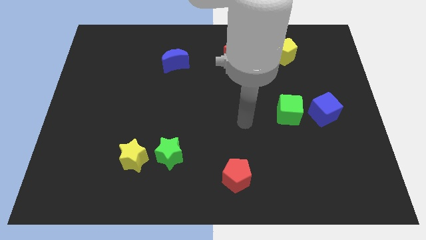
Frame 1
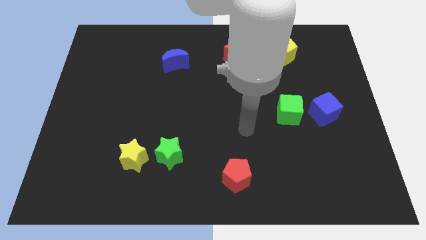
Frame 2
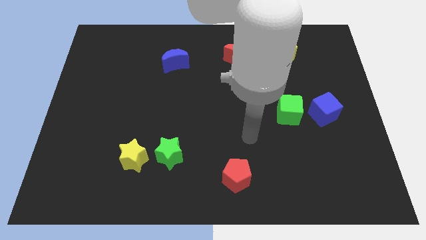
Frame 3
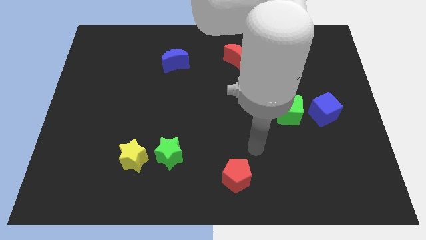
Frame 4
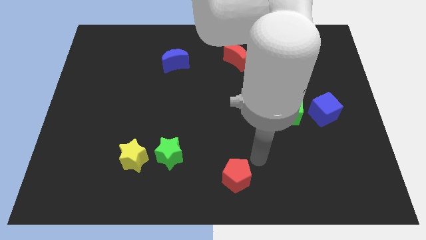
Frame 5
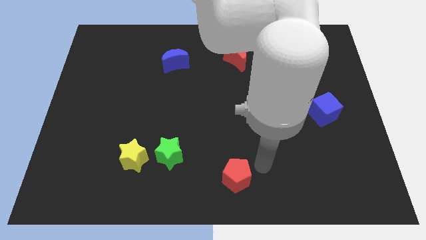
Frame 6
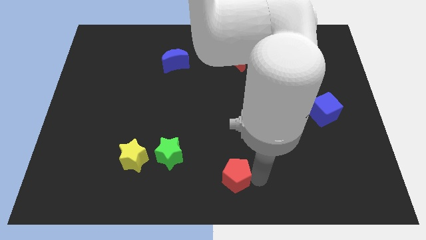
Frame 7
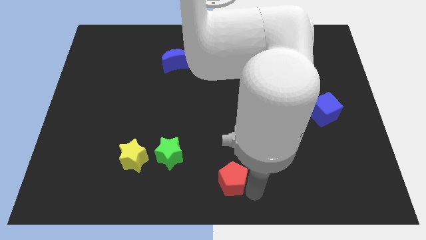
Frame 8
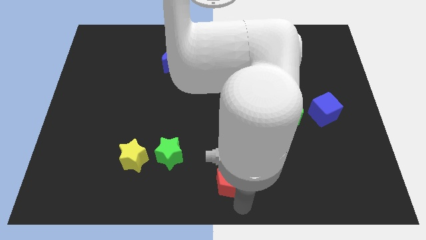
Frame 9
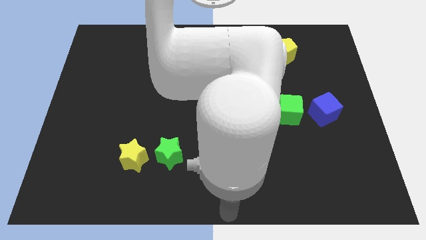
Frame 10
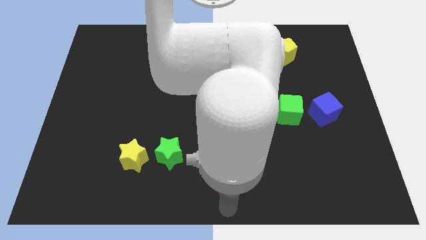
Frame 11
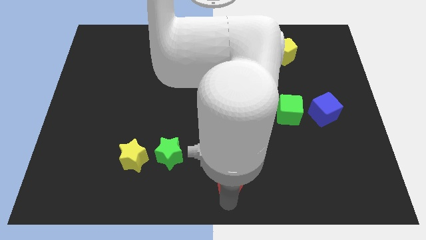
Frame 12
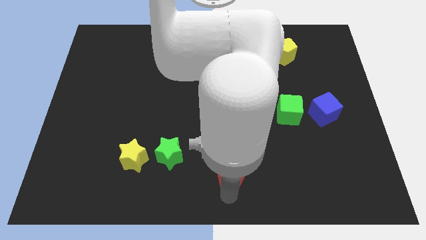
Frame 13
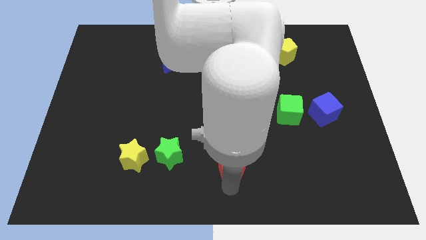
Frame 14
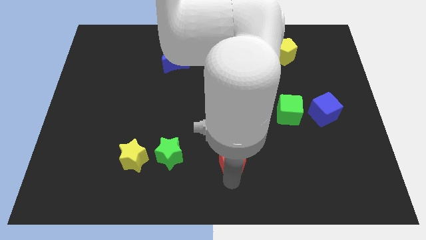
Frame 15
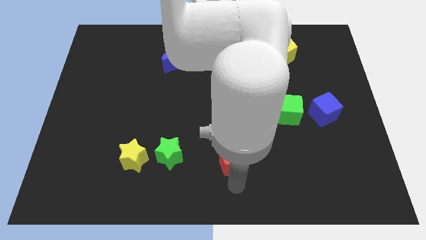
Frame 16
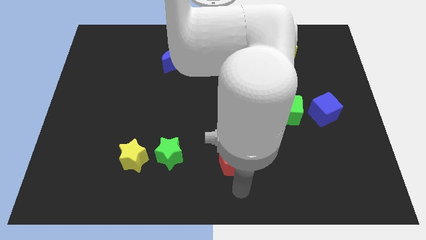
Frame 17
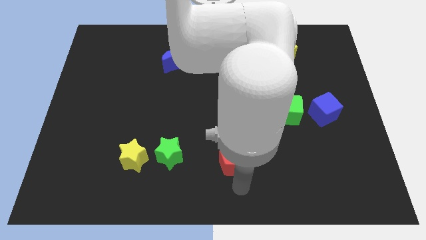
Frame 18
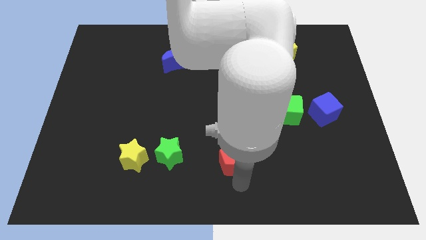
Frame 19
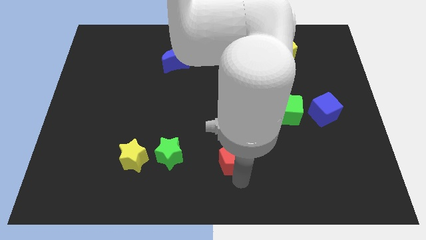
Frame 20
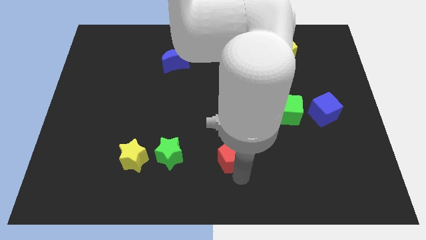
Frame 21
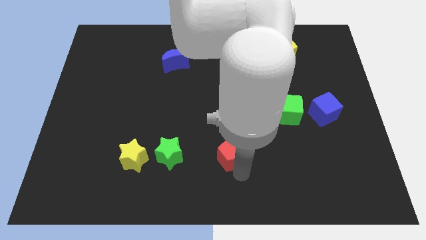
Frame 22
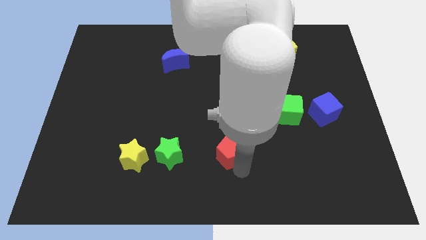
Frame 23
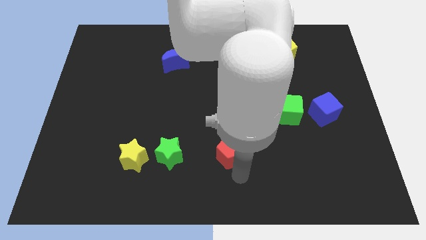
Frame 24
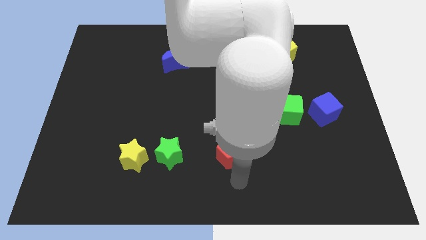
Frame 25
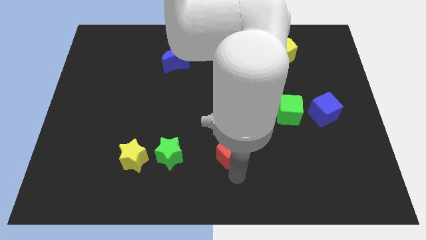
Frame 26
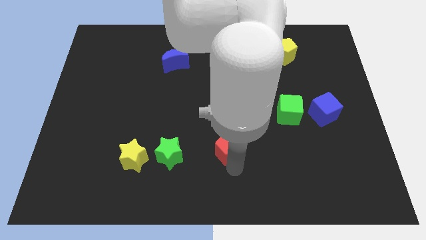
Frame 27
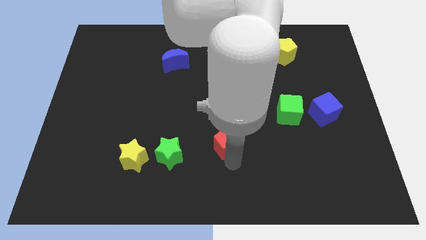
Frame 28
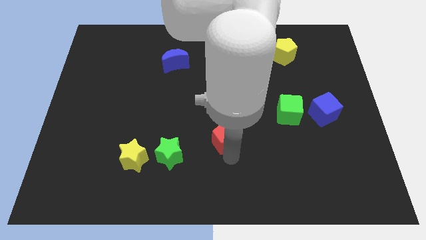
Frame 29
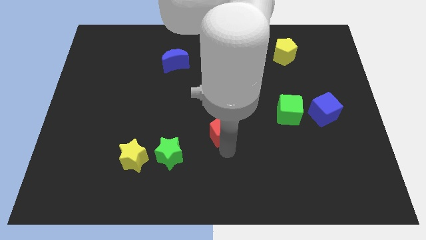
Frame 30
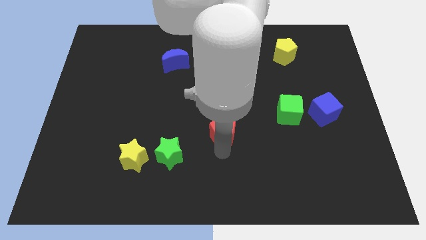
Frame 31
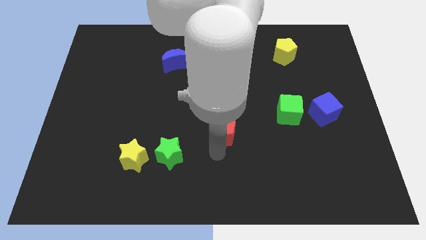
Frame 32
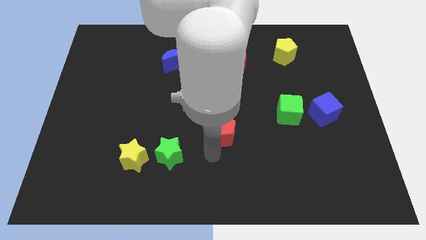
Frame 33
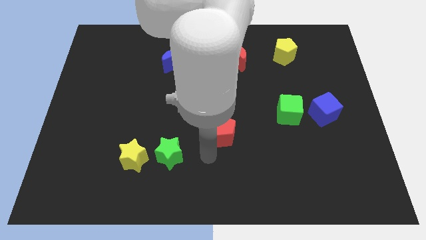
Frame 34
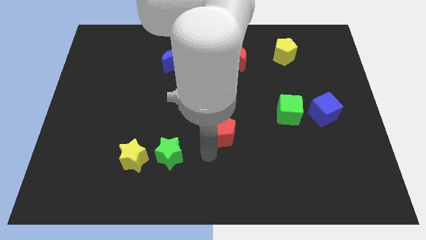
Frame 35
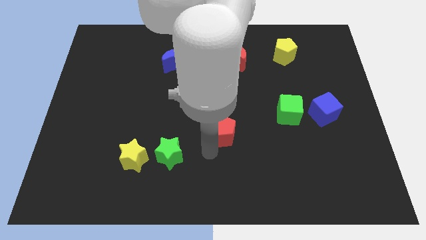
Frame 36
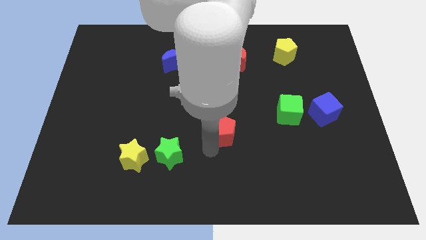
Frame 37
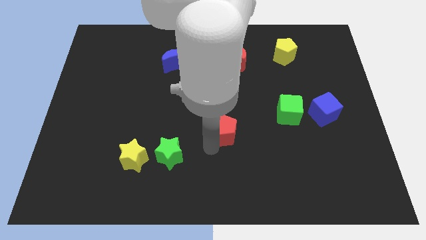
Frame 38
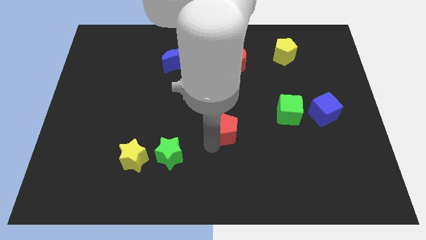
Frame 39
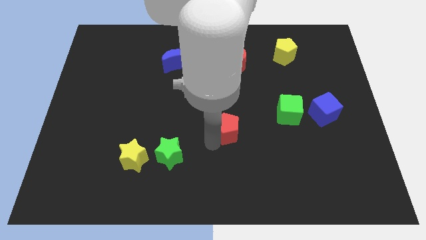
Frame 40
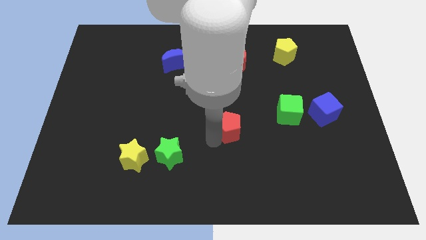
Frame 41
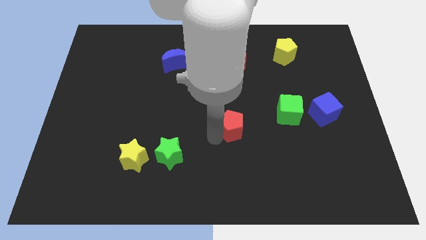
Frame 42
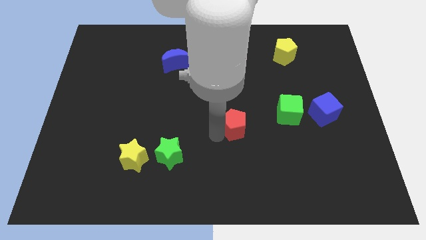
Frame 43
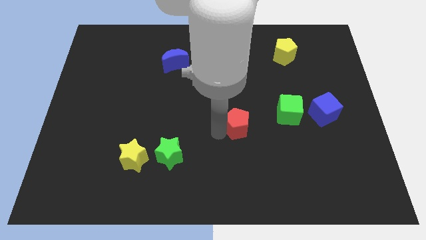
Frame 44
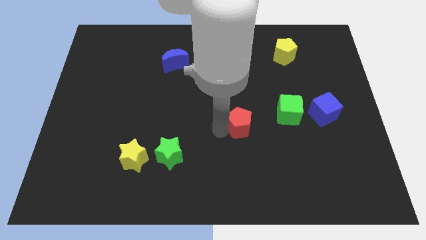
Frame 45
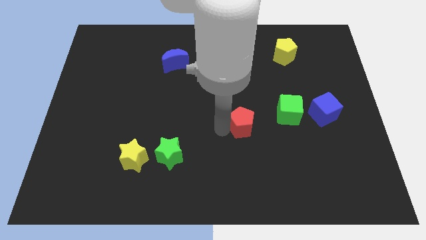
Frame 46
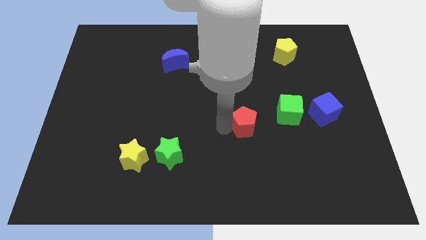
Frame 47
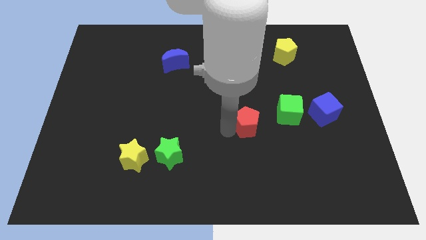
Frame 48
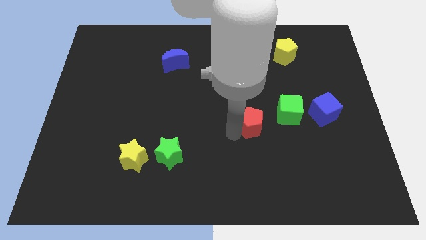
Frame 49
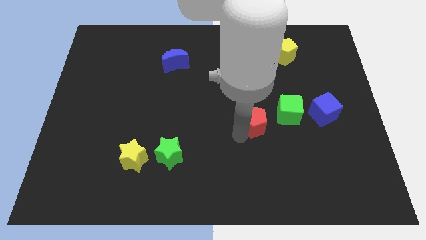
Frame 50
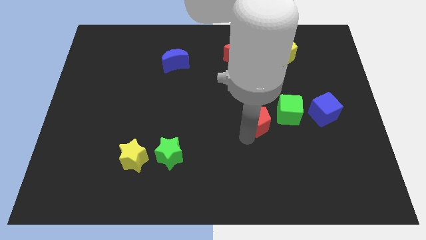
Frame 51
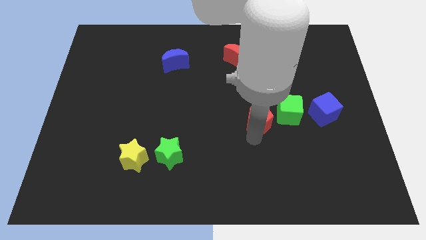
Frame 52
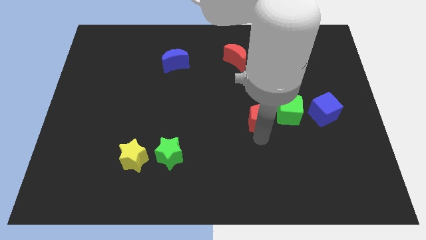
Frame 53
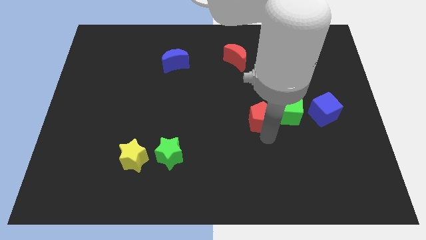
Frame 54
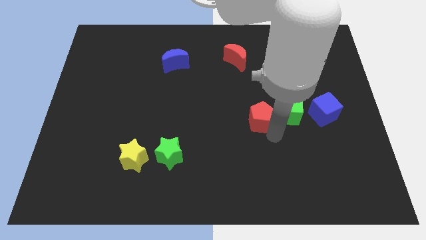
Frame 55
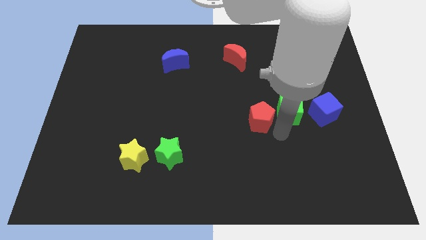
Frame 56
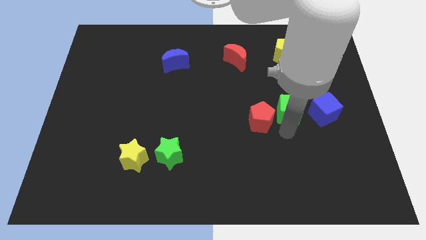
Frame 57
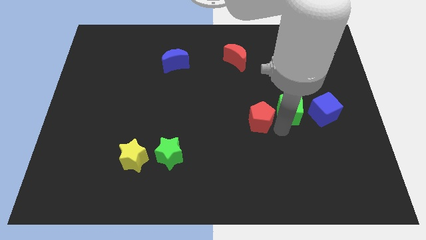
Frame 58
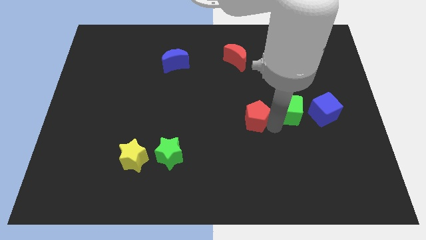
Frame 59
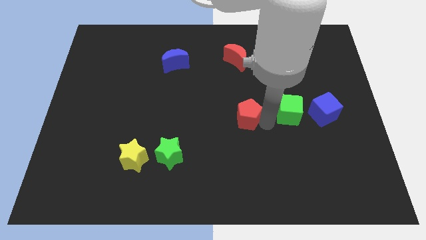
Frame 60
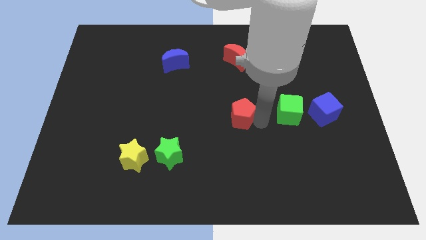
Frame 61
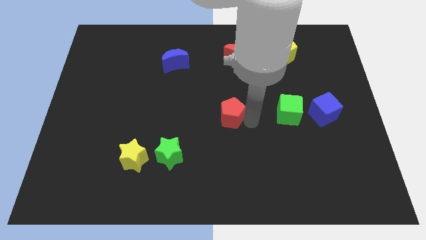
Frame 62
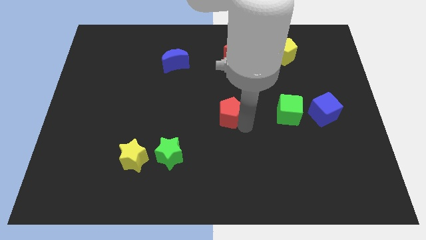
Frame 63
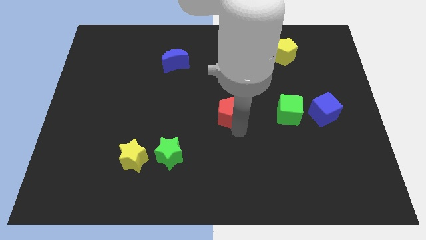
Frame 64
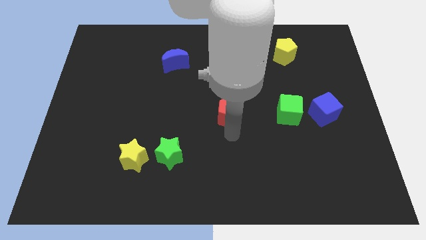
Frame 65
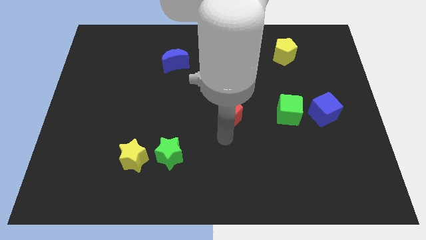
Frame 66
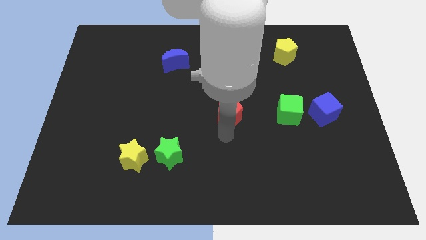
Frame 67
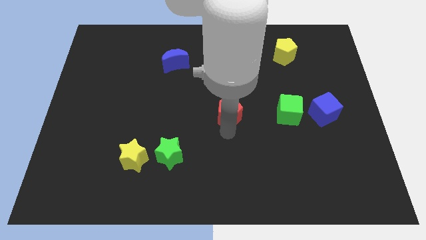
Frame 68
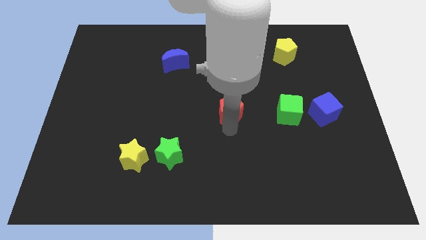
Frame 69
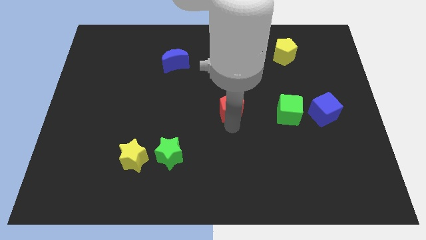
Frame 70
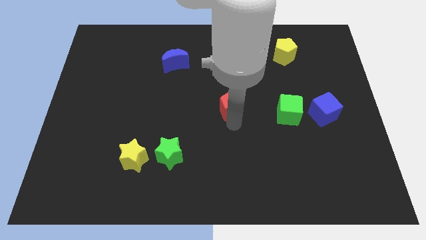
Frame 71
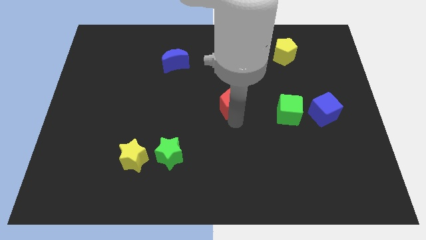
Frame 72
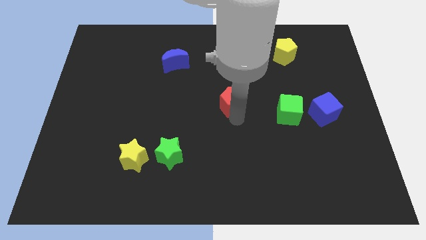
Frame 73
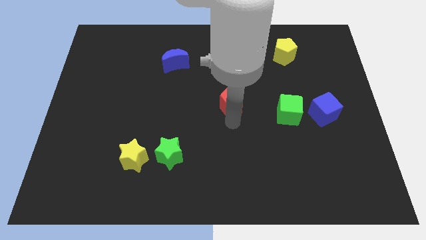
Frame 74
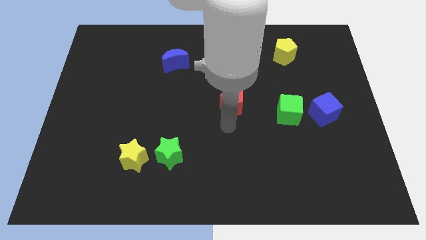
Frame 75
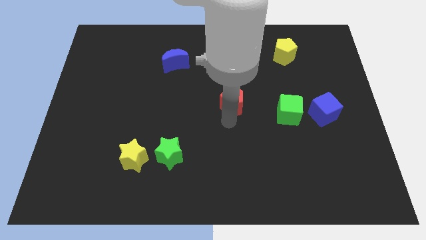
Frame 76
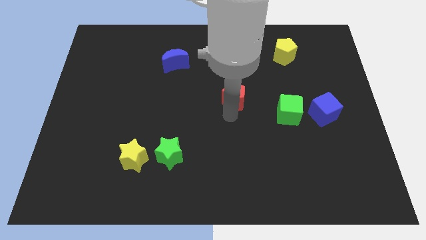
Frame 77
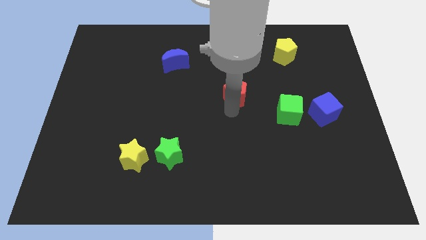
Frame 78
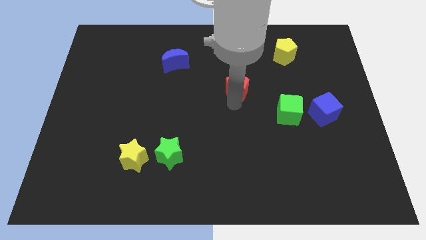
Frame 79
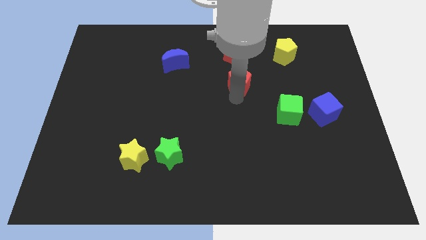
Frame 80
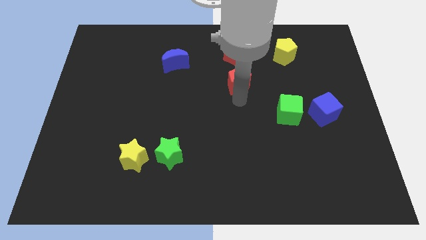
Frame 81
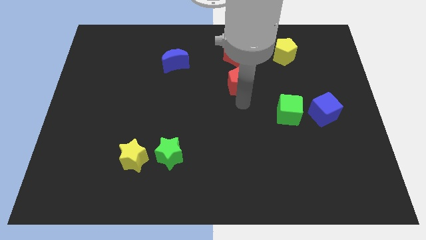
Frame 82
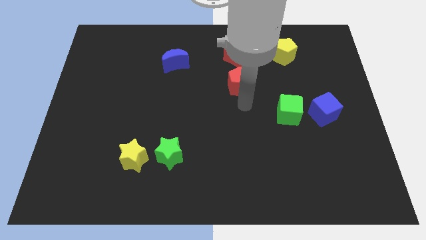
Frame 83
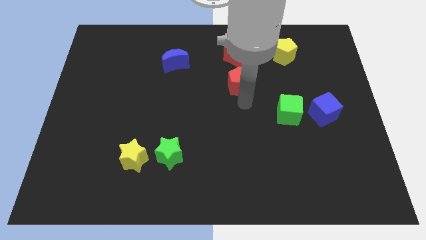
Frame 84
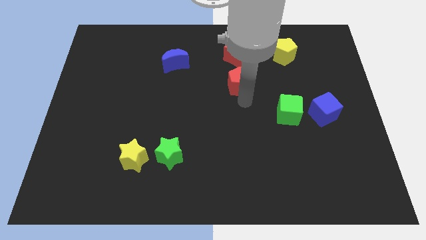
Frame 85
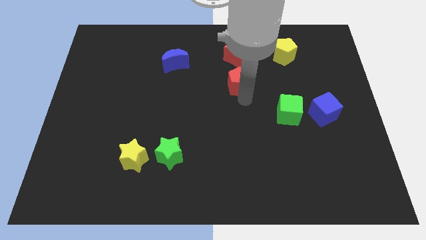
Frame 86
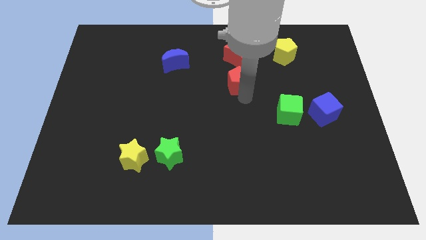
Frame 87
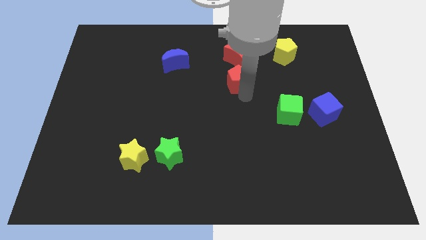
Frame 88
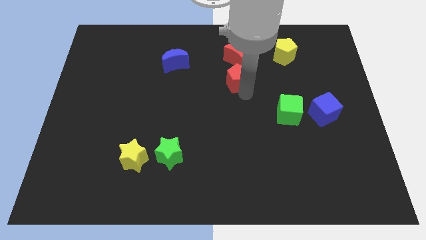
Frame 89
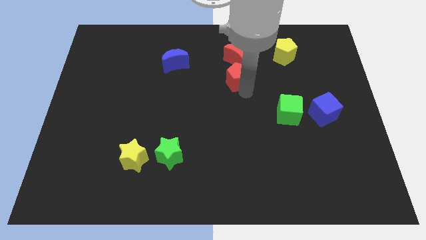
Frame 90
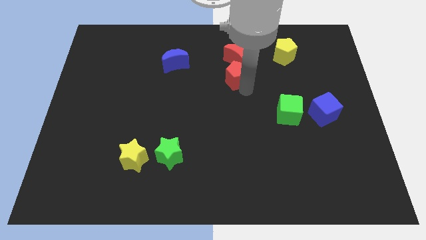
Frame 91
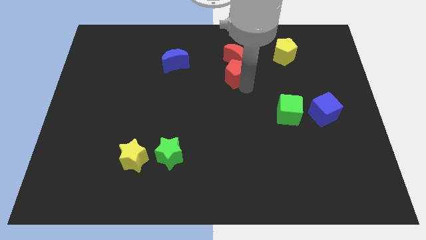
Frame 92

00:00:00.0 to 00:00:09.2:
put the red pentagon close to the red moon
